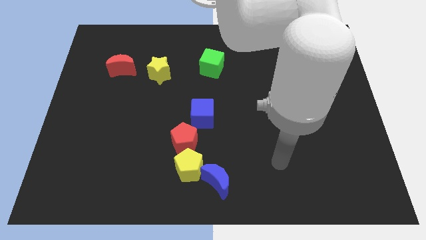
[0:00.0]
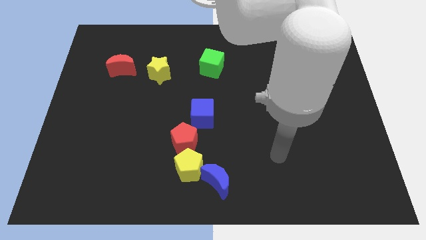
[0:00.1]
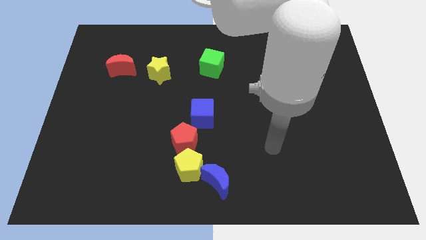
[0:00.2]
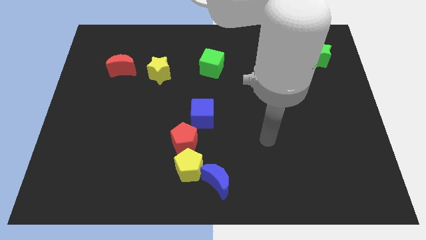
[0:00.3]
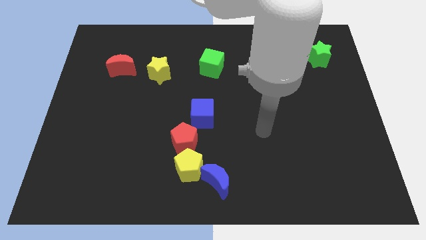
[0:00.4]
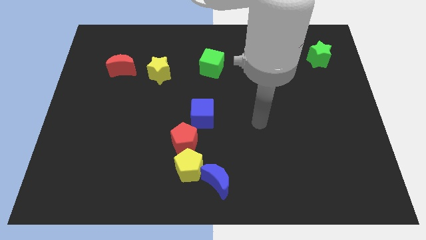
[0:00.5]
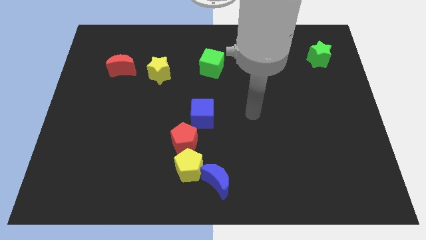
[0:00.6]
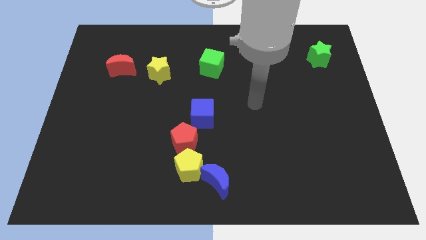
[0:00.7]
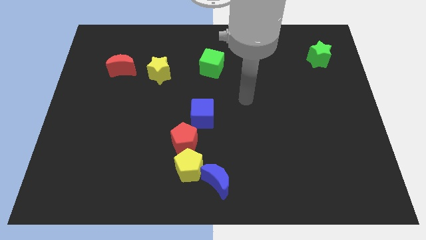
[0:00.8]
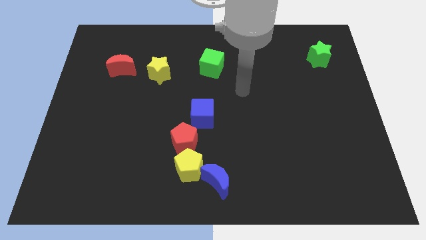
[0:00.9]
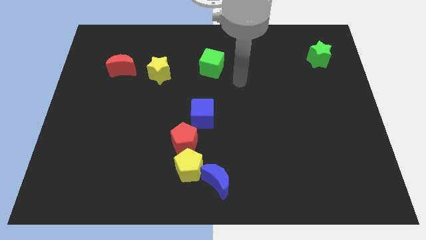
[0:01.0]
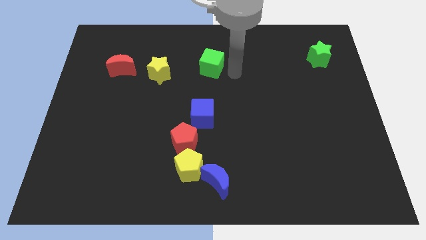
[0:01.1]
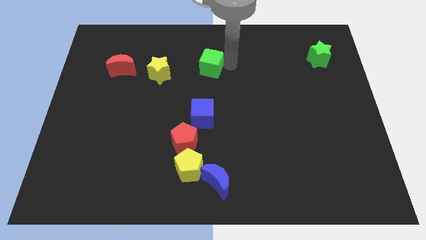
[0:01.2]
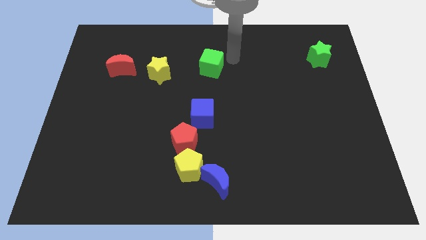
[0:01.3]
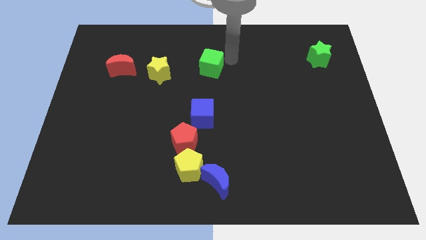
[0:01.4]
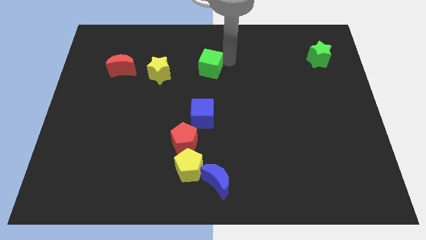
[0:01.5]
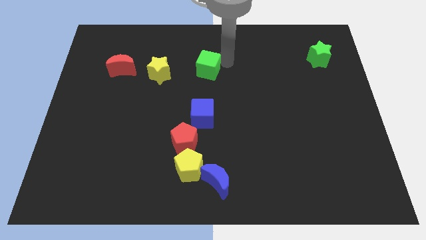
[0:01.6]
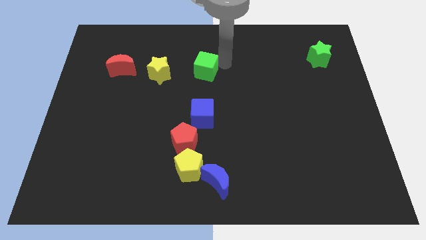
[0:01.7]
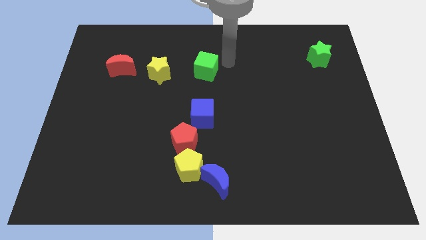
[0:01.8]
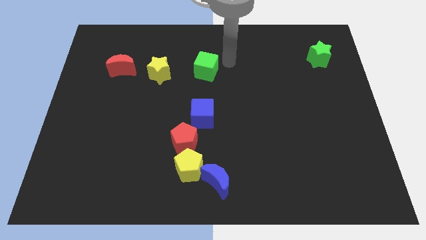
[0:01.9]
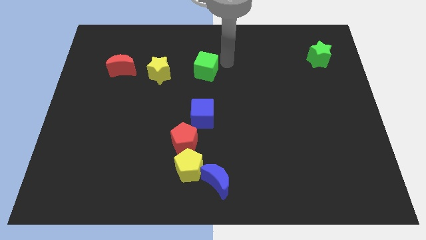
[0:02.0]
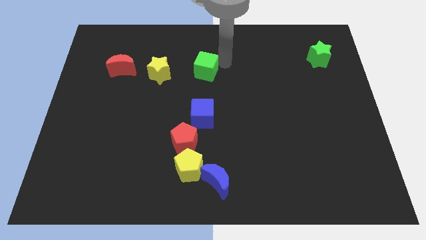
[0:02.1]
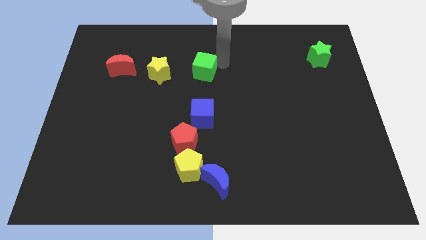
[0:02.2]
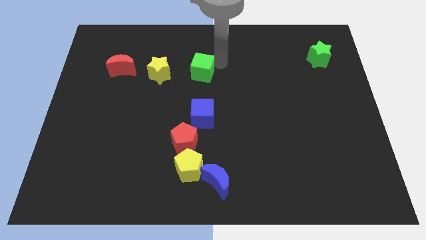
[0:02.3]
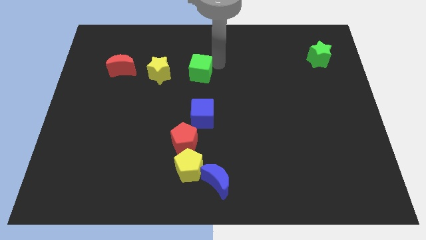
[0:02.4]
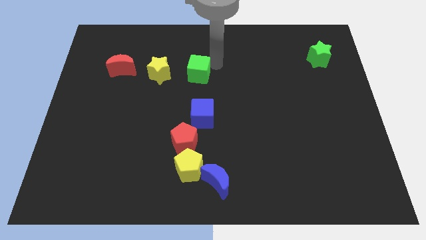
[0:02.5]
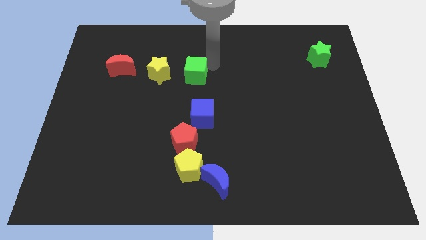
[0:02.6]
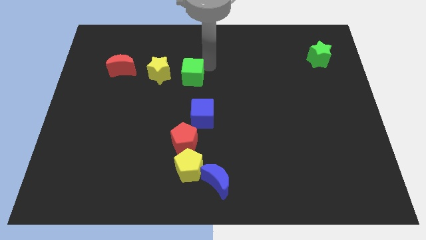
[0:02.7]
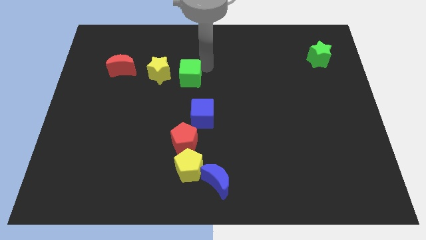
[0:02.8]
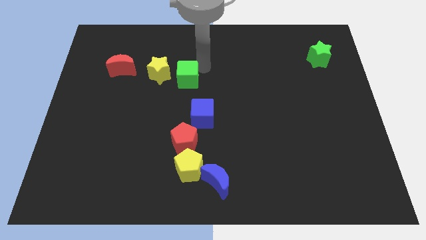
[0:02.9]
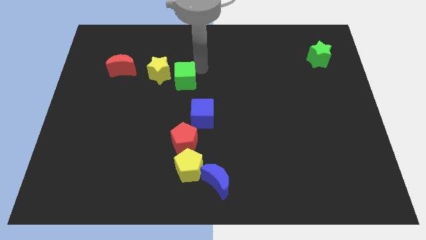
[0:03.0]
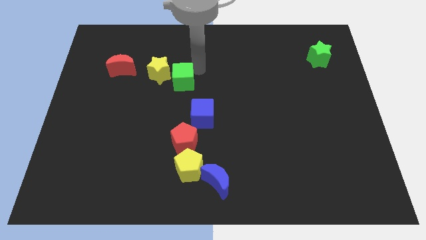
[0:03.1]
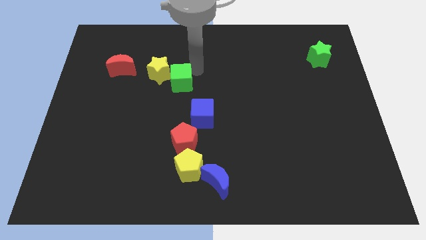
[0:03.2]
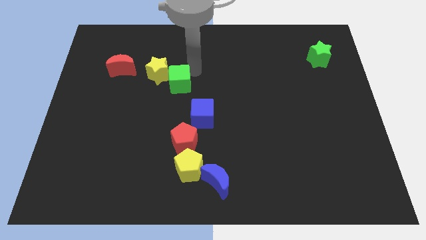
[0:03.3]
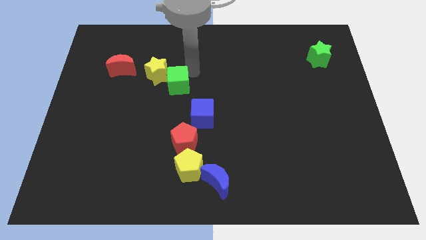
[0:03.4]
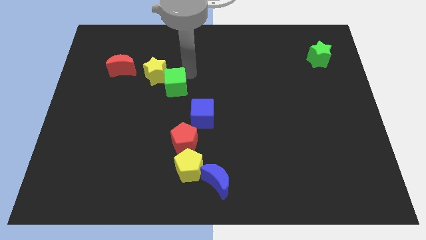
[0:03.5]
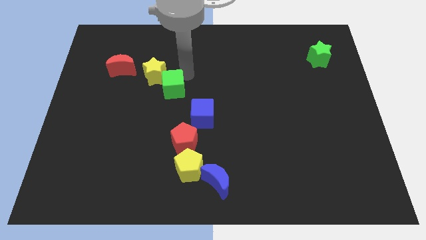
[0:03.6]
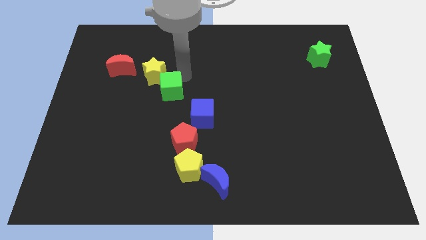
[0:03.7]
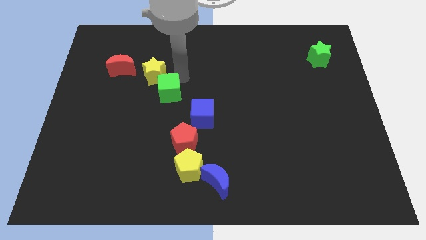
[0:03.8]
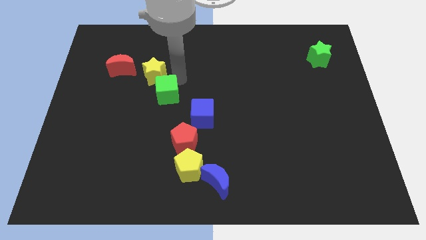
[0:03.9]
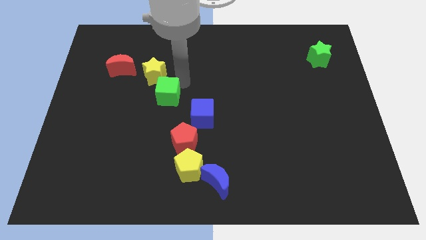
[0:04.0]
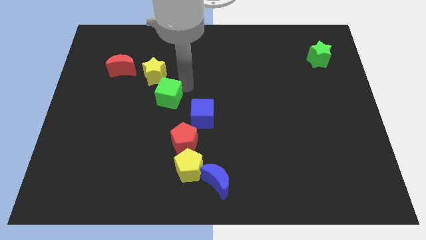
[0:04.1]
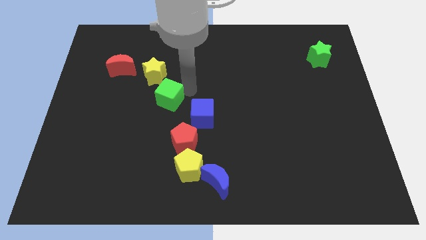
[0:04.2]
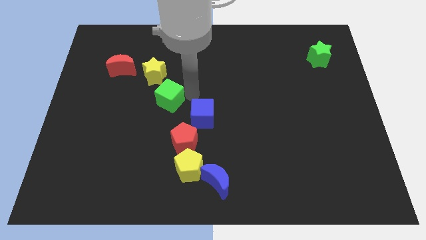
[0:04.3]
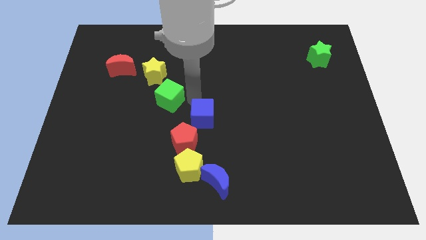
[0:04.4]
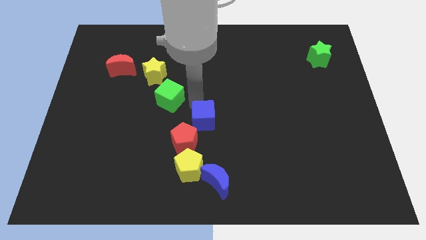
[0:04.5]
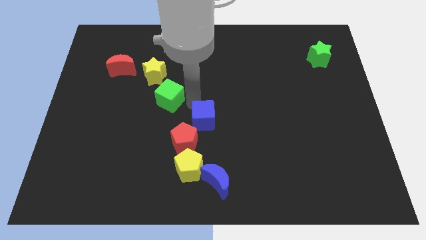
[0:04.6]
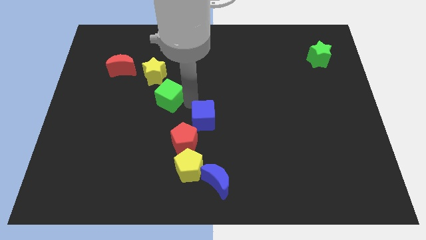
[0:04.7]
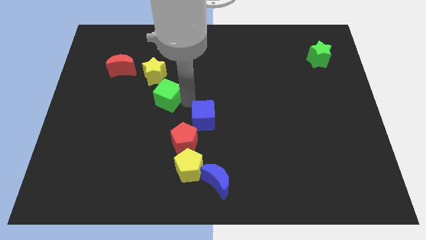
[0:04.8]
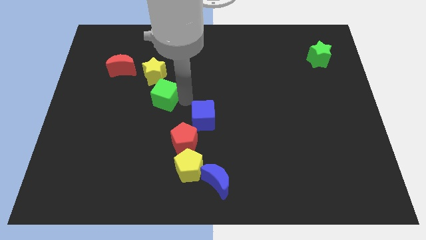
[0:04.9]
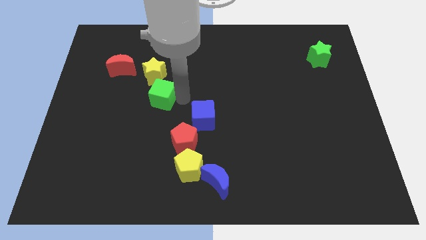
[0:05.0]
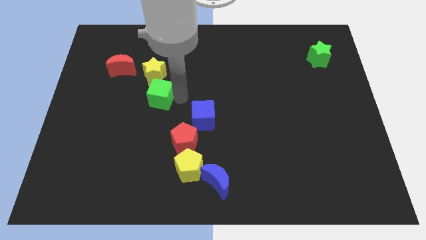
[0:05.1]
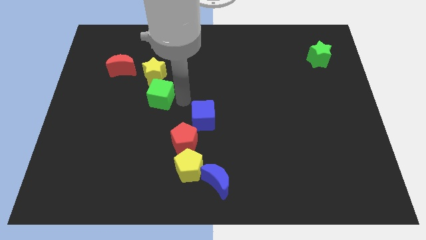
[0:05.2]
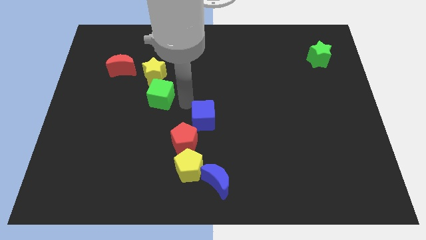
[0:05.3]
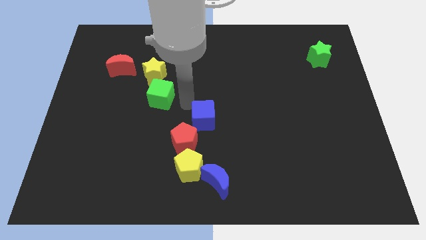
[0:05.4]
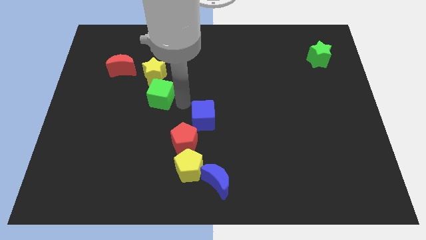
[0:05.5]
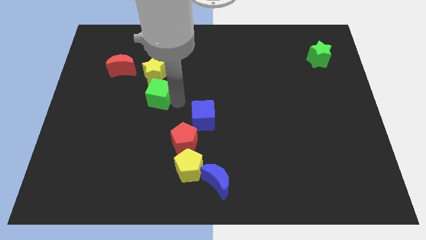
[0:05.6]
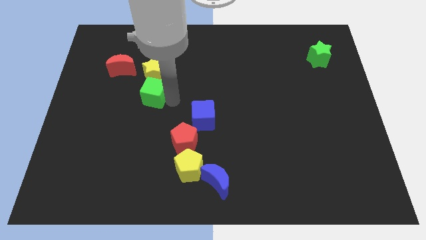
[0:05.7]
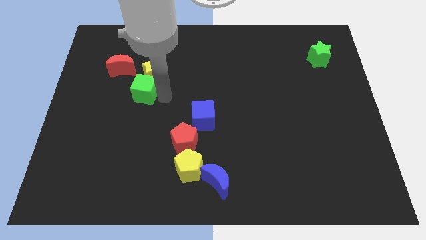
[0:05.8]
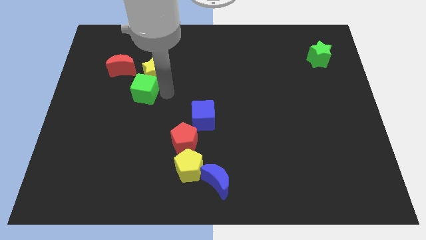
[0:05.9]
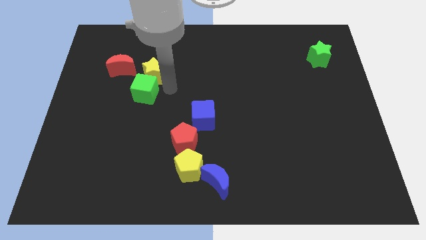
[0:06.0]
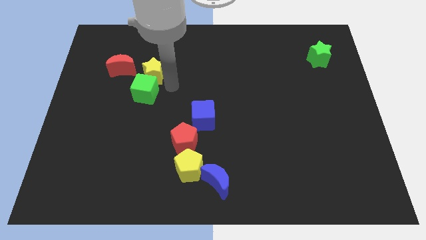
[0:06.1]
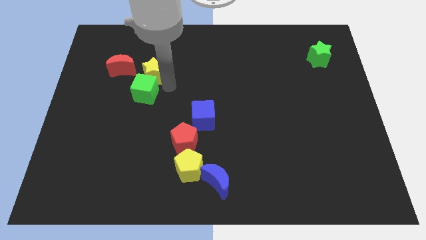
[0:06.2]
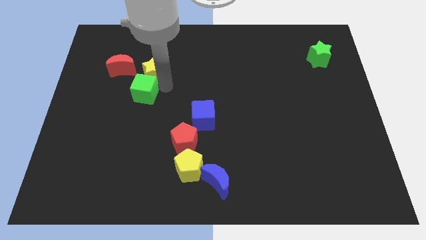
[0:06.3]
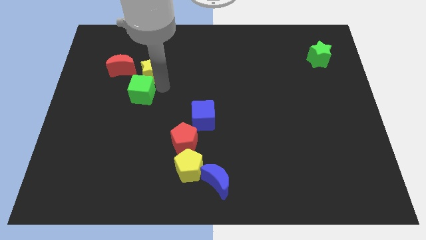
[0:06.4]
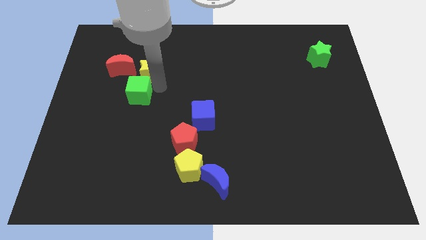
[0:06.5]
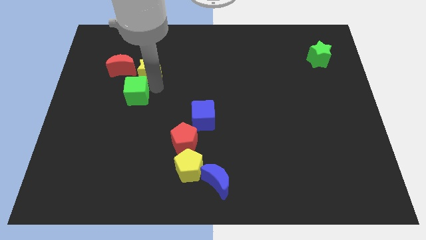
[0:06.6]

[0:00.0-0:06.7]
move the green cube below the red moon

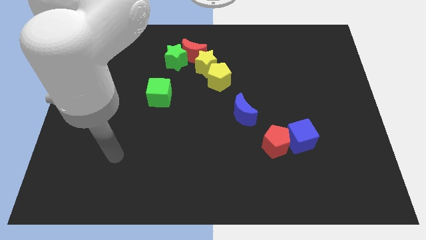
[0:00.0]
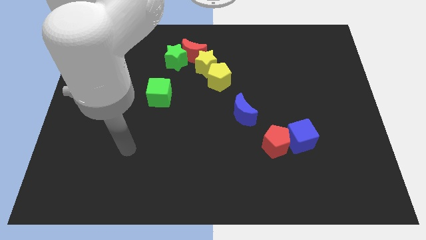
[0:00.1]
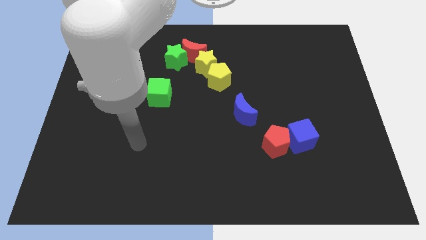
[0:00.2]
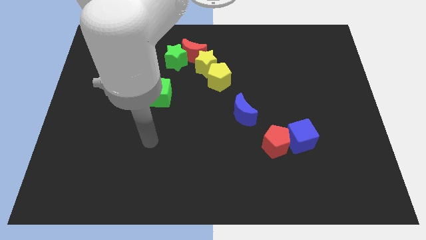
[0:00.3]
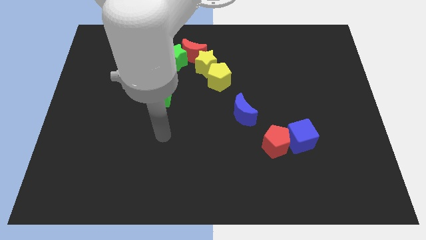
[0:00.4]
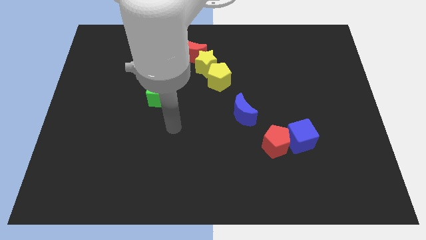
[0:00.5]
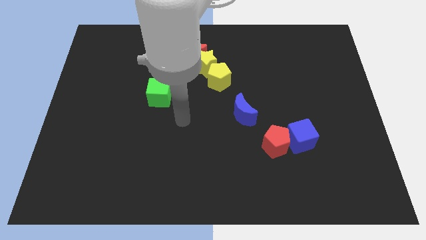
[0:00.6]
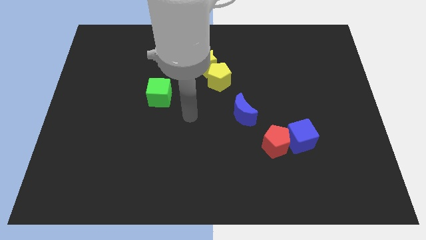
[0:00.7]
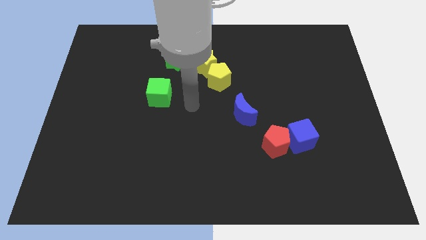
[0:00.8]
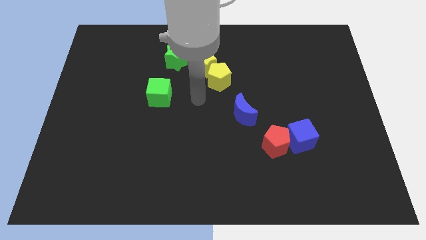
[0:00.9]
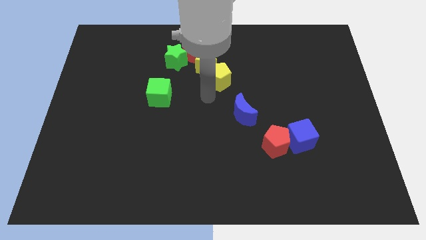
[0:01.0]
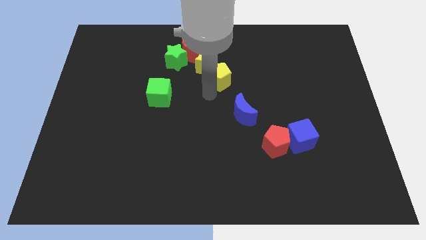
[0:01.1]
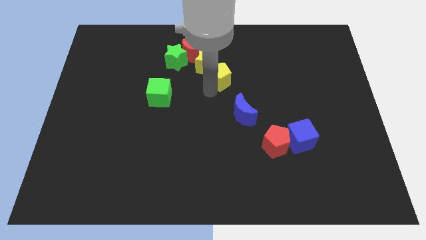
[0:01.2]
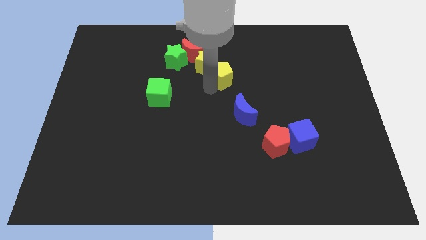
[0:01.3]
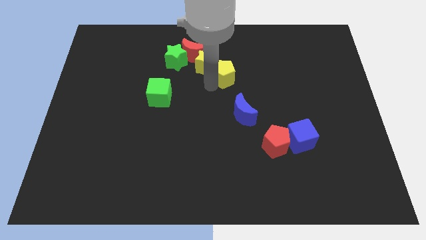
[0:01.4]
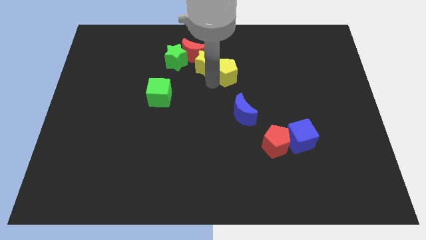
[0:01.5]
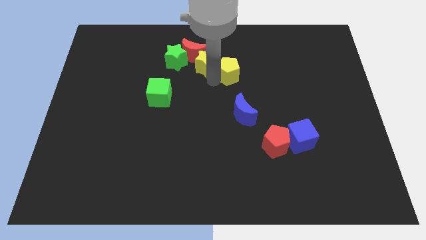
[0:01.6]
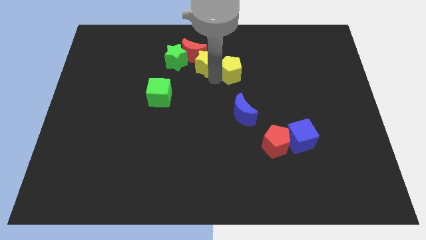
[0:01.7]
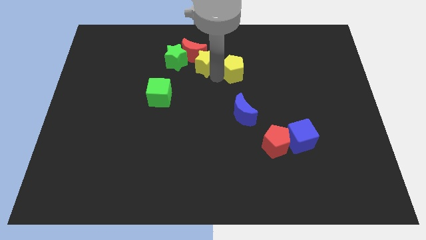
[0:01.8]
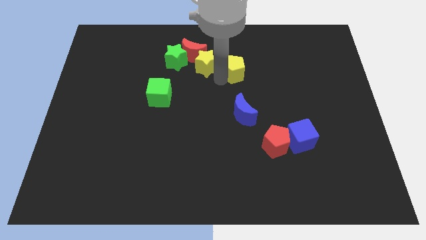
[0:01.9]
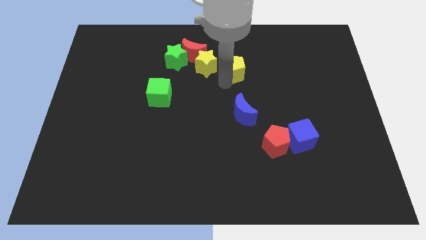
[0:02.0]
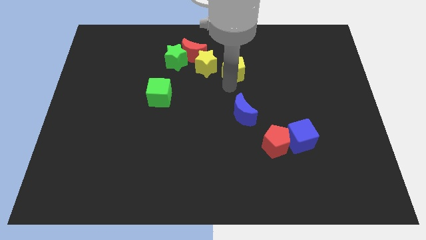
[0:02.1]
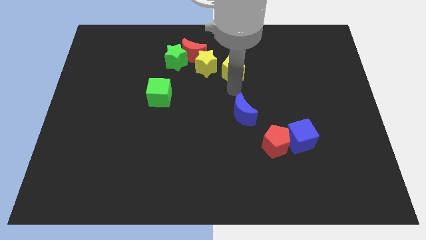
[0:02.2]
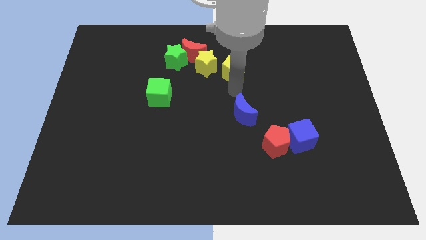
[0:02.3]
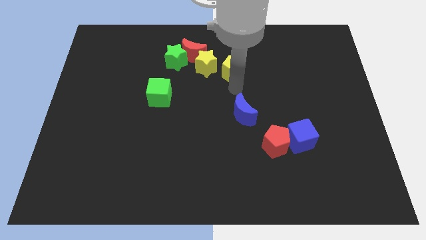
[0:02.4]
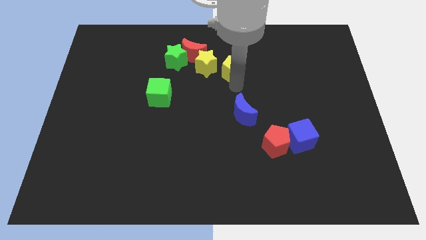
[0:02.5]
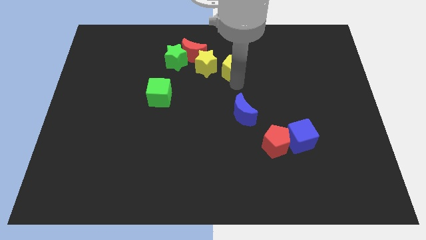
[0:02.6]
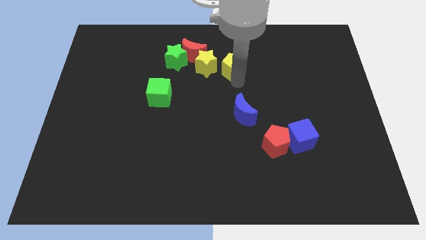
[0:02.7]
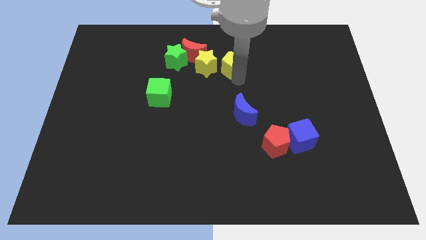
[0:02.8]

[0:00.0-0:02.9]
put the yellow pentagon to the right of the red moon
